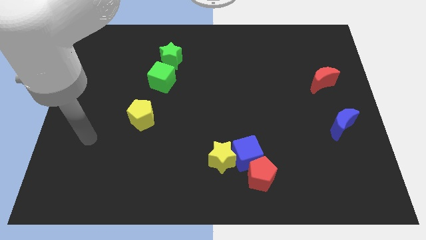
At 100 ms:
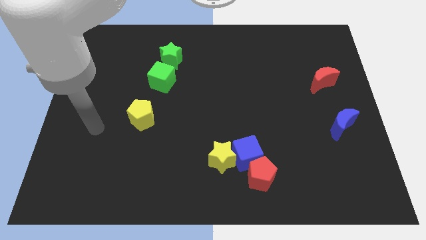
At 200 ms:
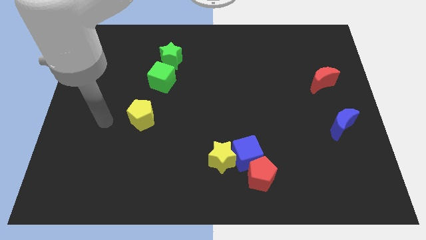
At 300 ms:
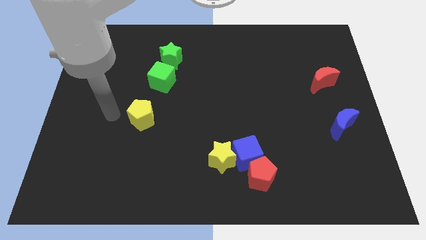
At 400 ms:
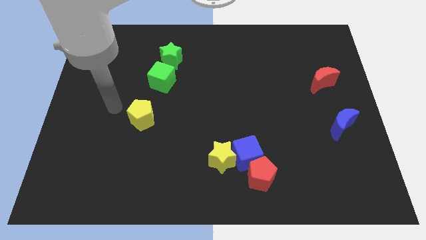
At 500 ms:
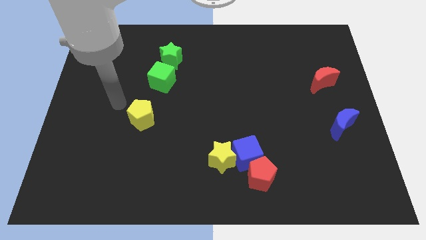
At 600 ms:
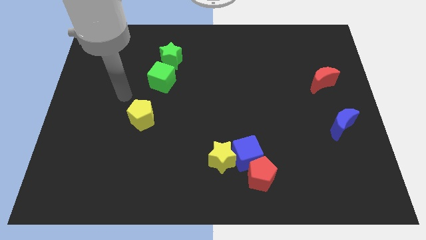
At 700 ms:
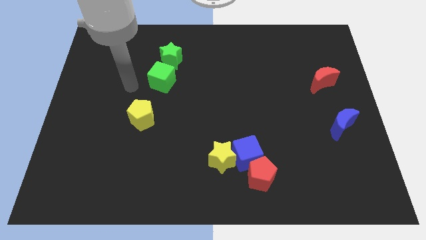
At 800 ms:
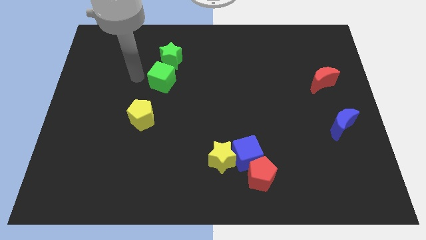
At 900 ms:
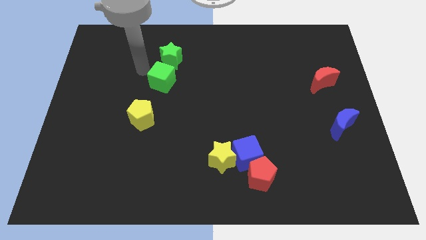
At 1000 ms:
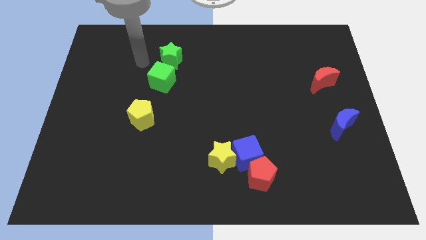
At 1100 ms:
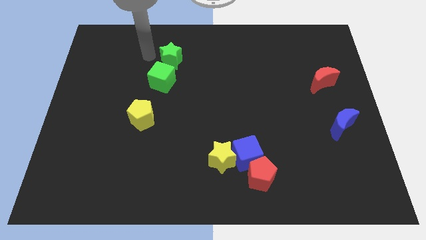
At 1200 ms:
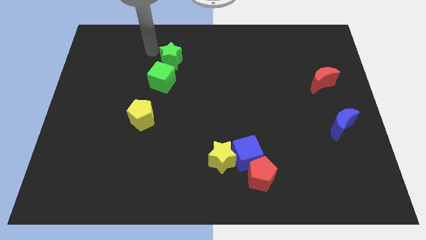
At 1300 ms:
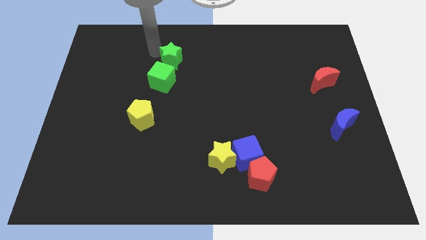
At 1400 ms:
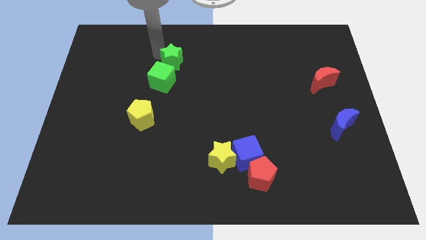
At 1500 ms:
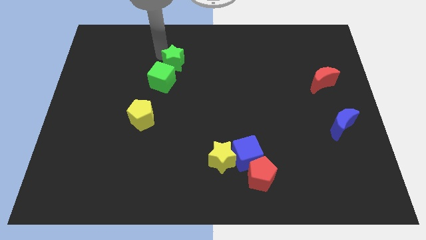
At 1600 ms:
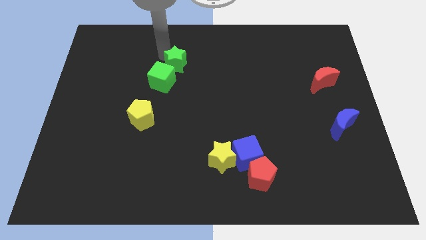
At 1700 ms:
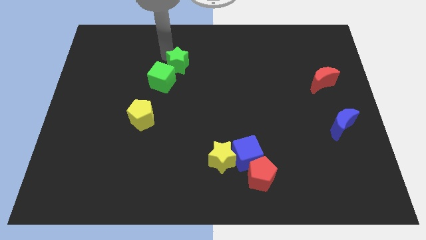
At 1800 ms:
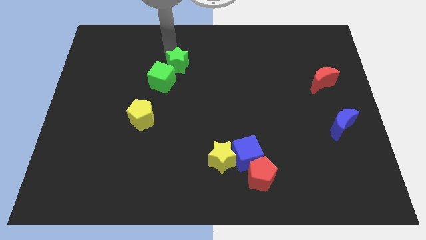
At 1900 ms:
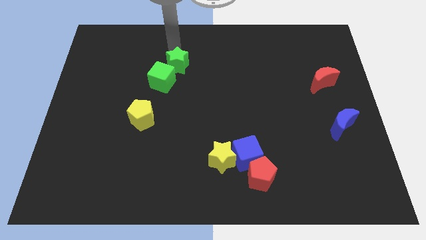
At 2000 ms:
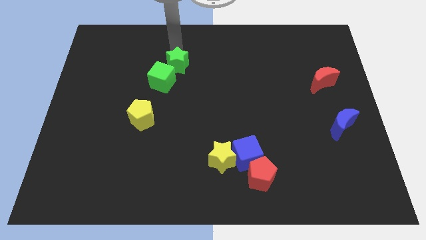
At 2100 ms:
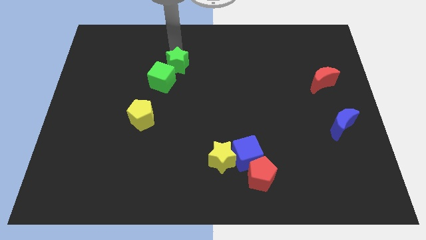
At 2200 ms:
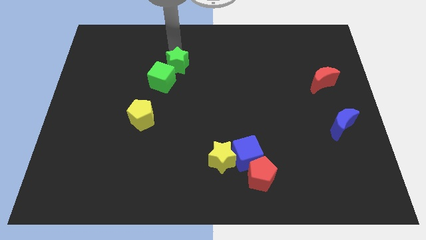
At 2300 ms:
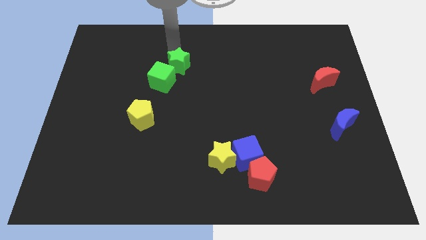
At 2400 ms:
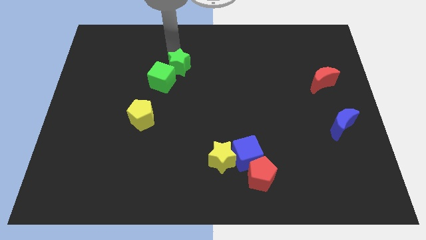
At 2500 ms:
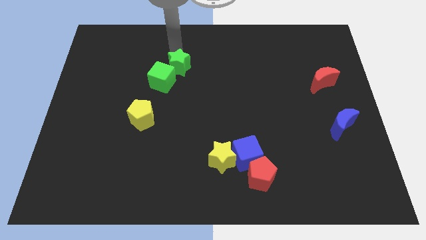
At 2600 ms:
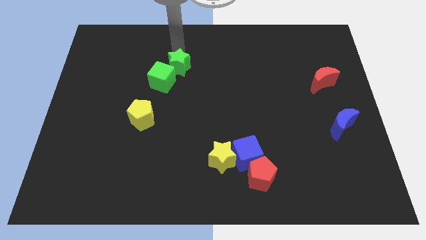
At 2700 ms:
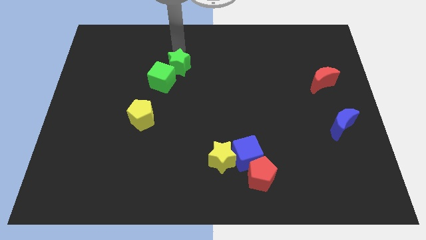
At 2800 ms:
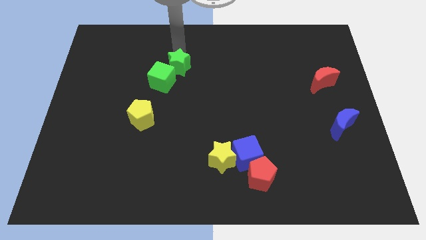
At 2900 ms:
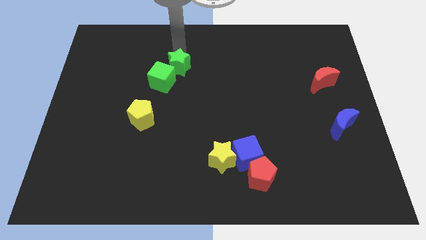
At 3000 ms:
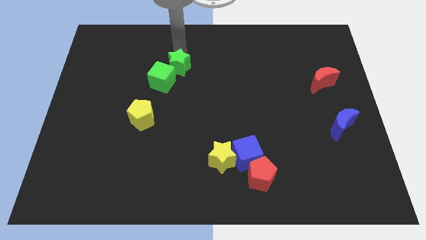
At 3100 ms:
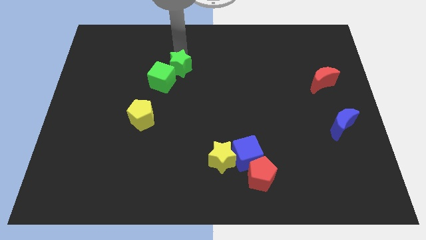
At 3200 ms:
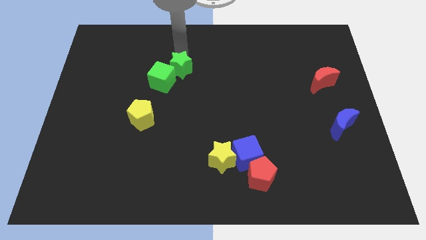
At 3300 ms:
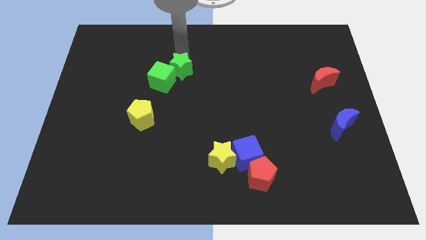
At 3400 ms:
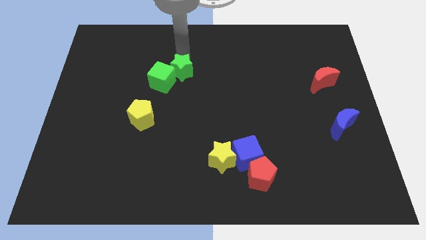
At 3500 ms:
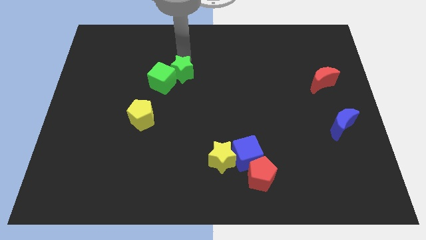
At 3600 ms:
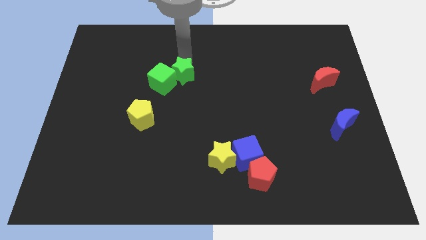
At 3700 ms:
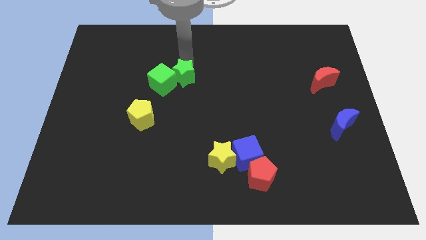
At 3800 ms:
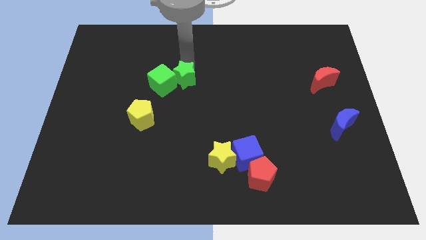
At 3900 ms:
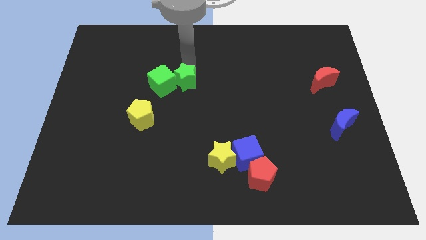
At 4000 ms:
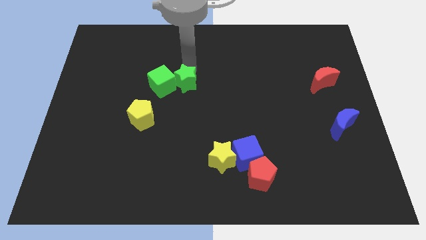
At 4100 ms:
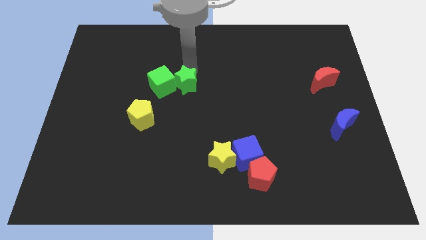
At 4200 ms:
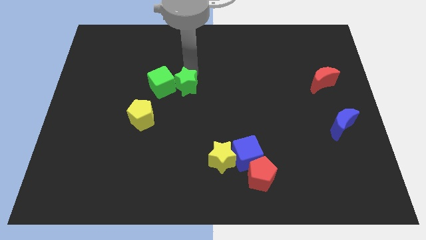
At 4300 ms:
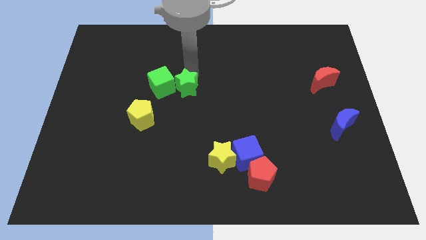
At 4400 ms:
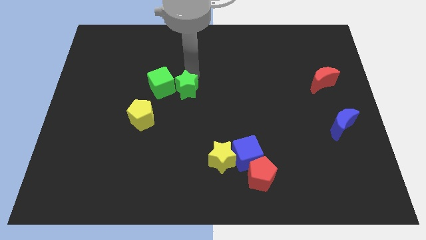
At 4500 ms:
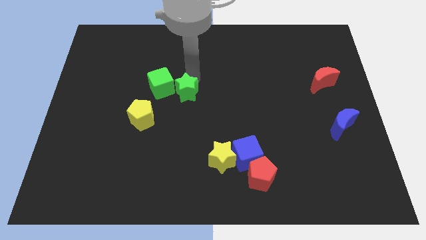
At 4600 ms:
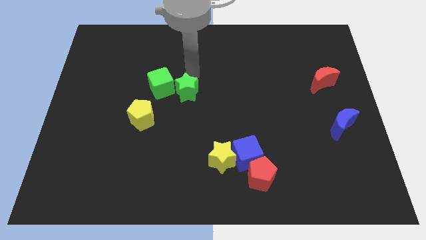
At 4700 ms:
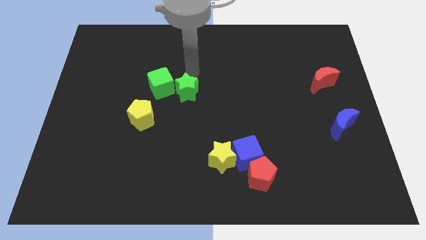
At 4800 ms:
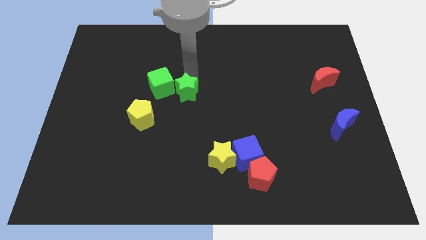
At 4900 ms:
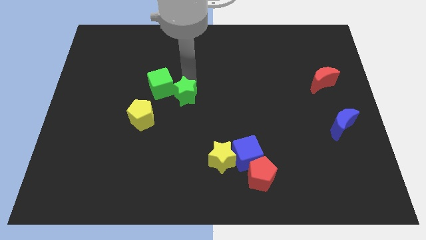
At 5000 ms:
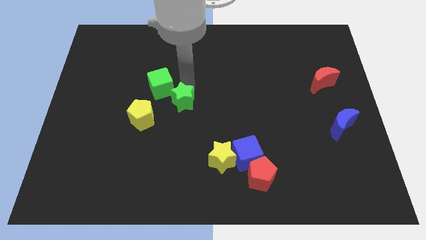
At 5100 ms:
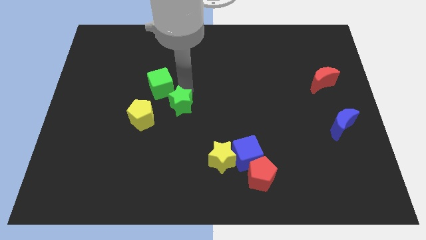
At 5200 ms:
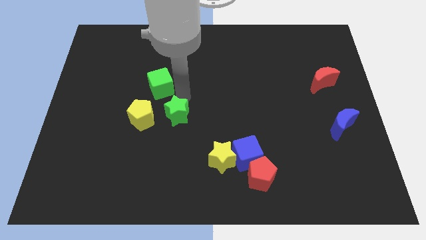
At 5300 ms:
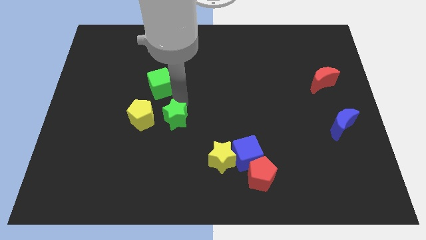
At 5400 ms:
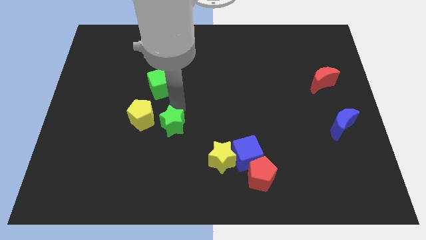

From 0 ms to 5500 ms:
push the green star down

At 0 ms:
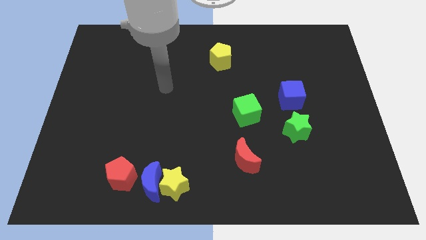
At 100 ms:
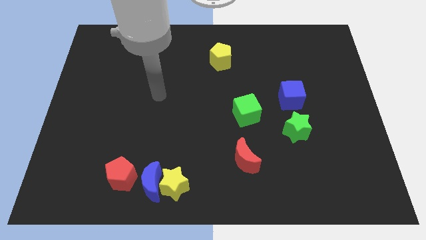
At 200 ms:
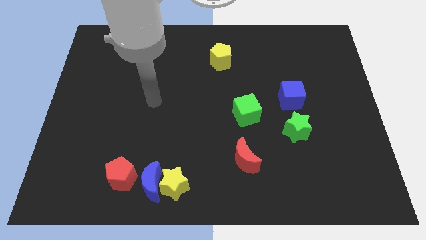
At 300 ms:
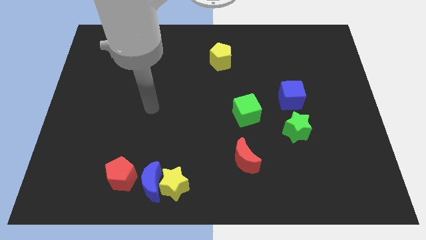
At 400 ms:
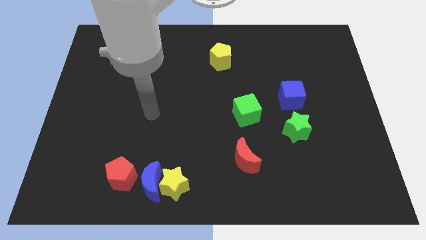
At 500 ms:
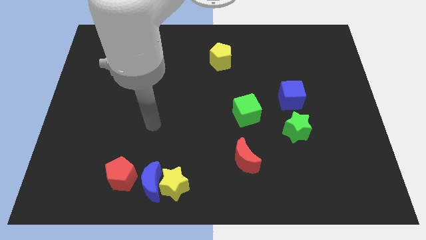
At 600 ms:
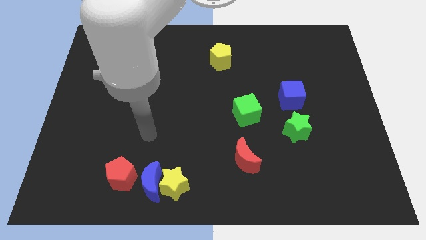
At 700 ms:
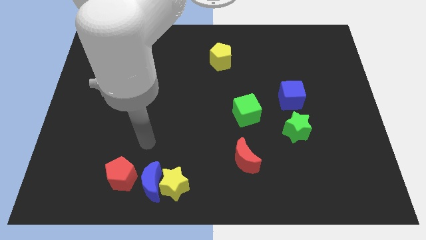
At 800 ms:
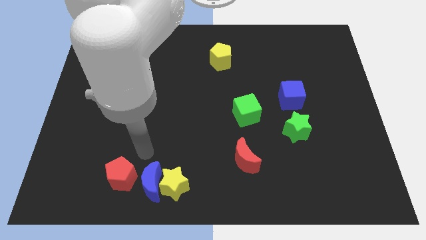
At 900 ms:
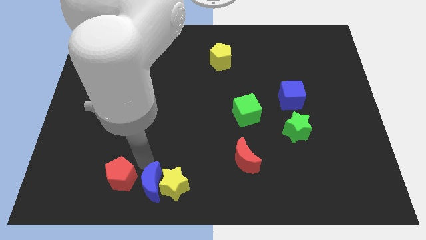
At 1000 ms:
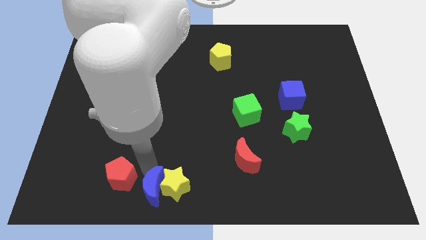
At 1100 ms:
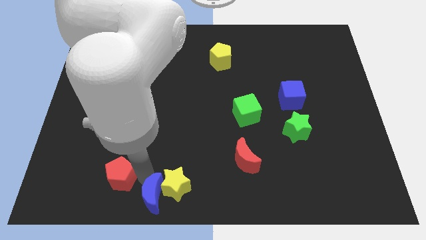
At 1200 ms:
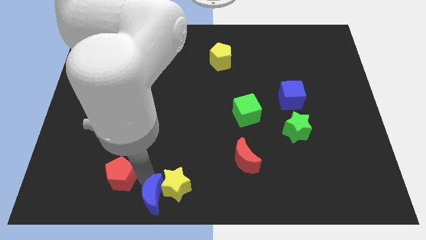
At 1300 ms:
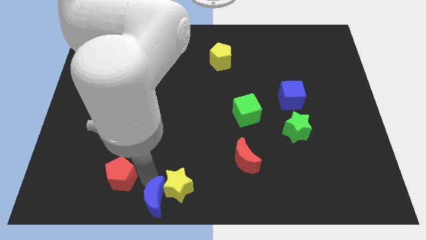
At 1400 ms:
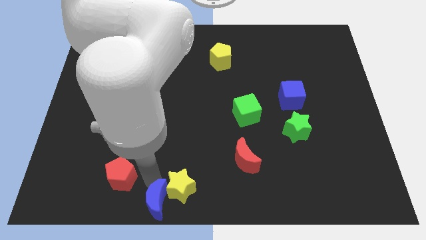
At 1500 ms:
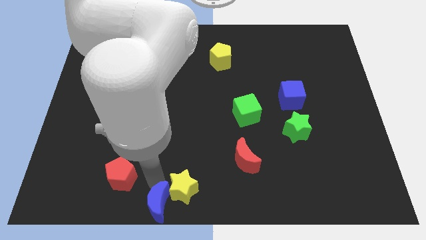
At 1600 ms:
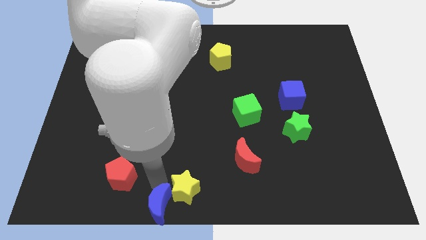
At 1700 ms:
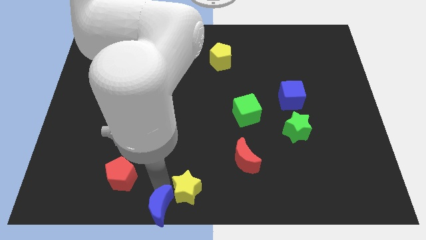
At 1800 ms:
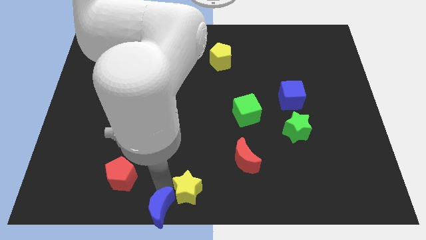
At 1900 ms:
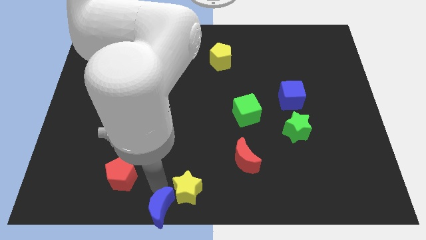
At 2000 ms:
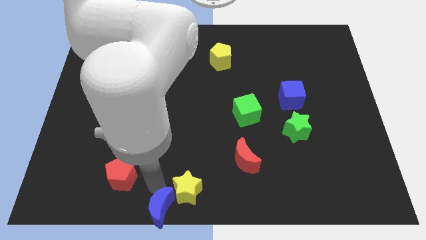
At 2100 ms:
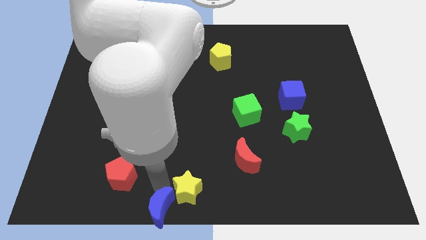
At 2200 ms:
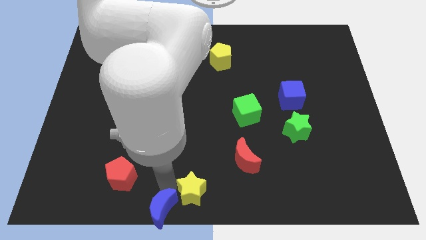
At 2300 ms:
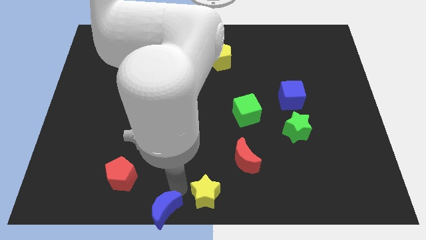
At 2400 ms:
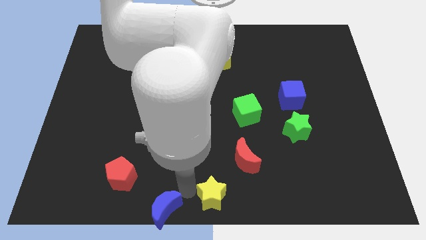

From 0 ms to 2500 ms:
slide the yellow star right slightly
